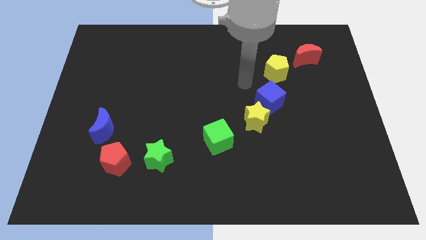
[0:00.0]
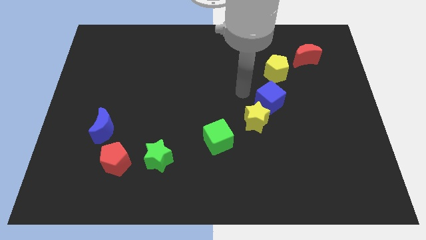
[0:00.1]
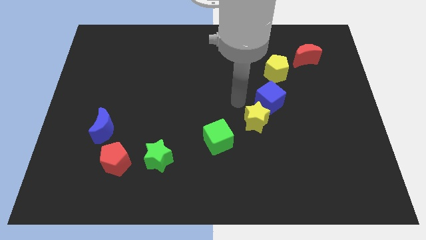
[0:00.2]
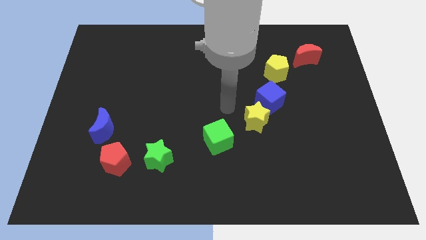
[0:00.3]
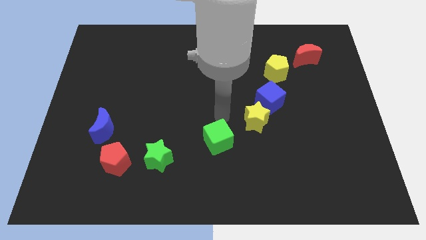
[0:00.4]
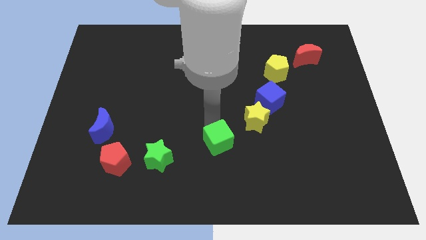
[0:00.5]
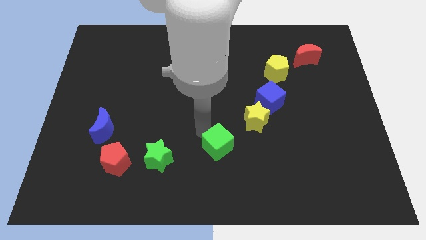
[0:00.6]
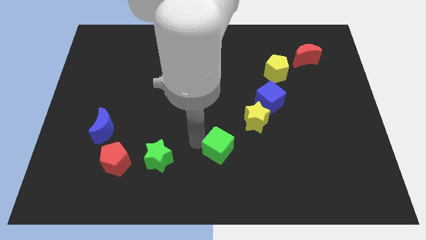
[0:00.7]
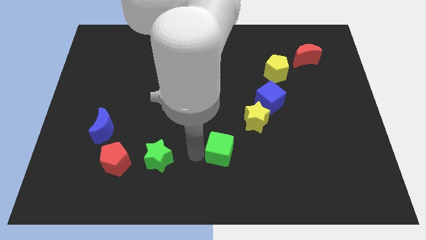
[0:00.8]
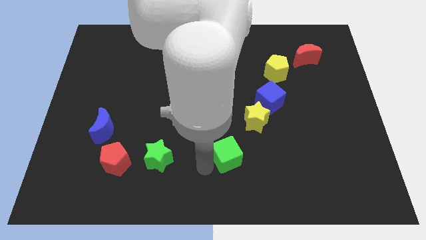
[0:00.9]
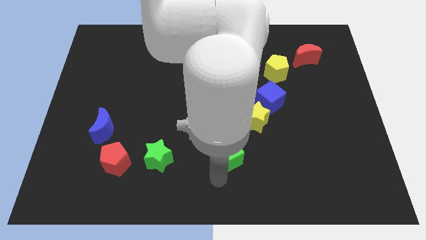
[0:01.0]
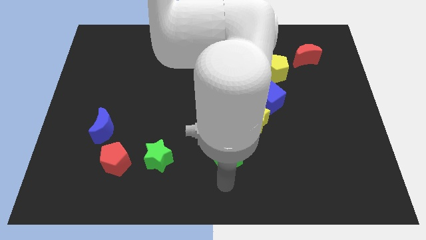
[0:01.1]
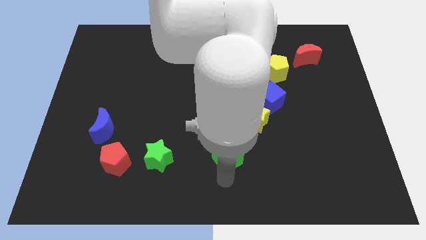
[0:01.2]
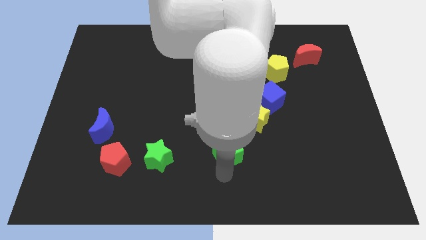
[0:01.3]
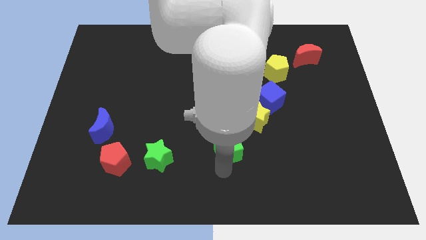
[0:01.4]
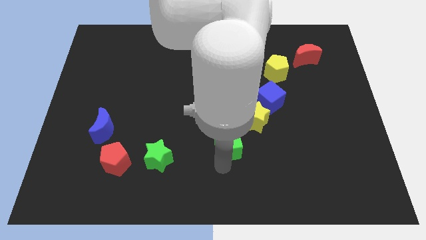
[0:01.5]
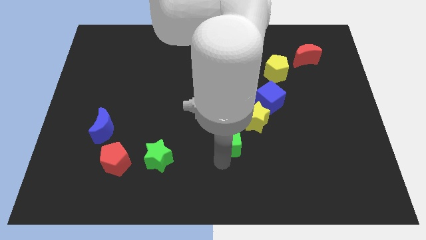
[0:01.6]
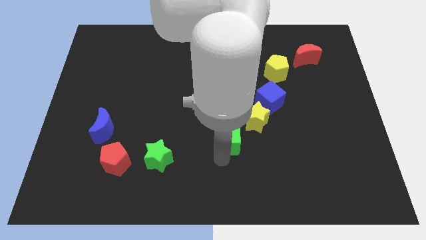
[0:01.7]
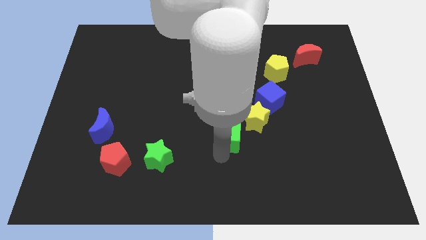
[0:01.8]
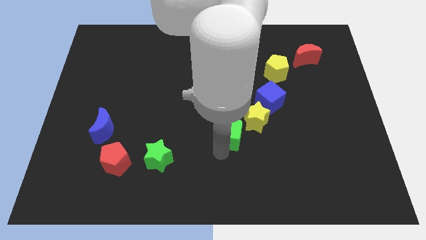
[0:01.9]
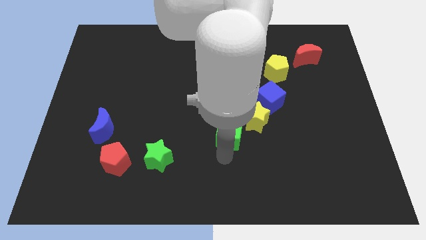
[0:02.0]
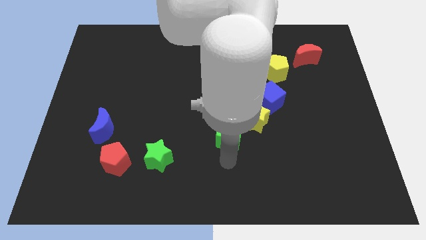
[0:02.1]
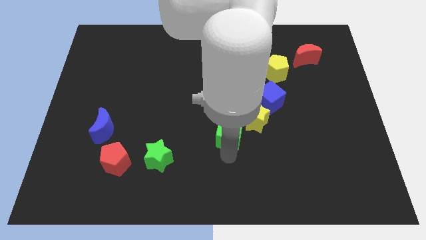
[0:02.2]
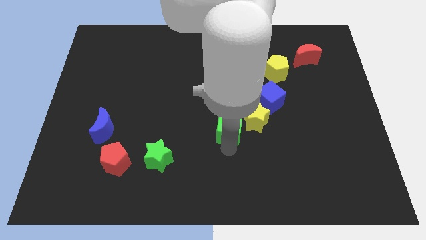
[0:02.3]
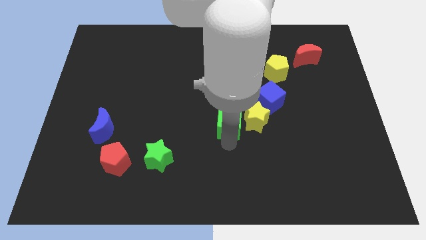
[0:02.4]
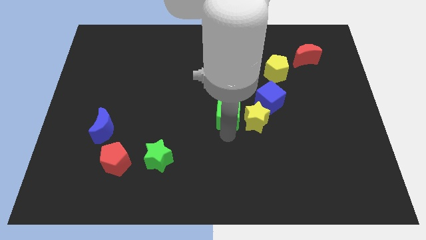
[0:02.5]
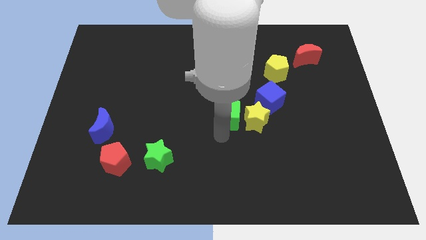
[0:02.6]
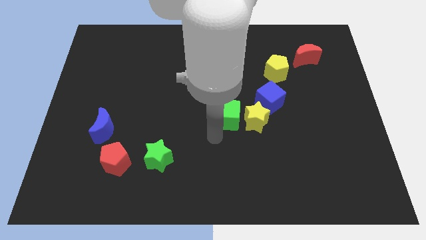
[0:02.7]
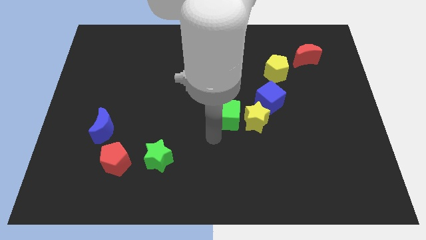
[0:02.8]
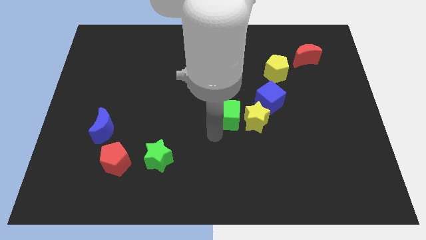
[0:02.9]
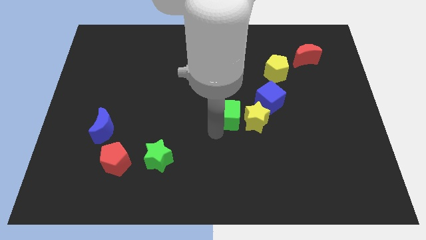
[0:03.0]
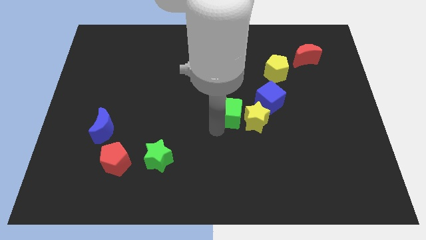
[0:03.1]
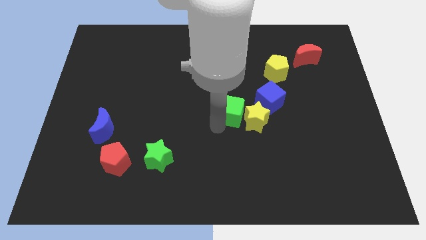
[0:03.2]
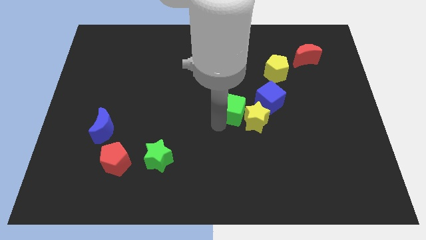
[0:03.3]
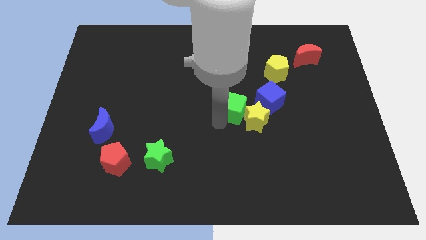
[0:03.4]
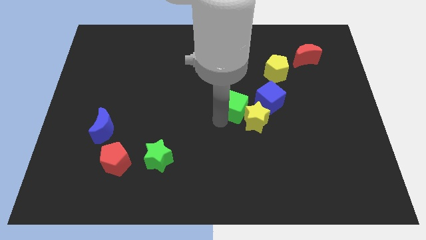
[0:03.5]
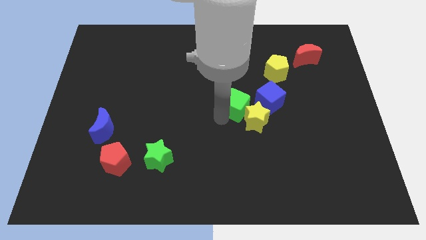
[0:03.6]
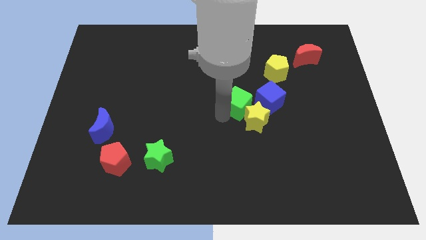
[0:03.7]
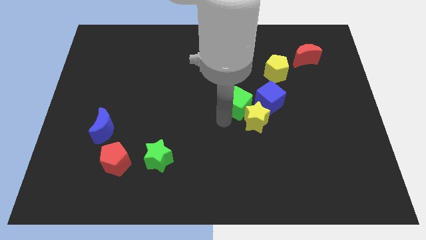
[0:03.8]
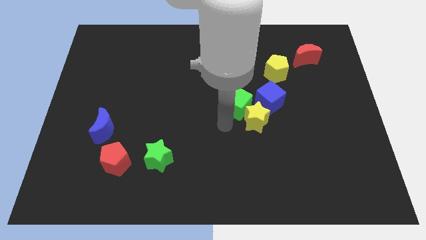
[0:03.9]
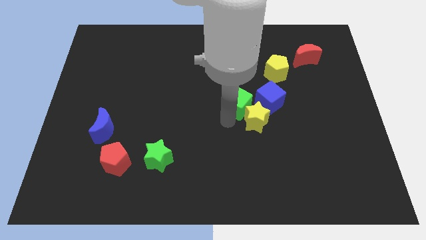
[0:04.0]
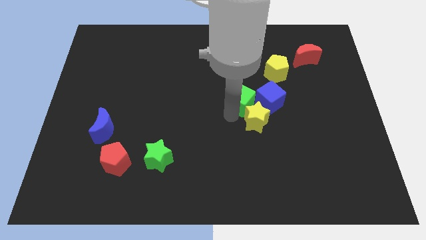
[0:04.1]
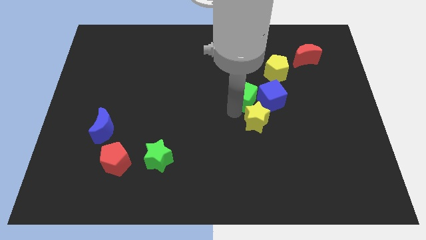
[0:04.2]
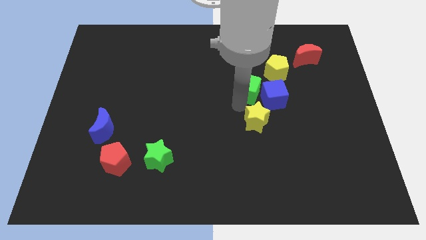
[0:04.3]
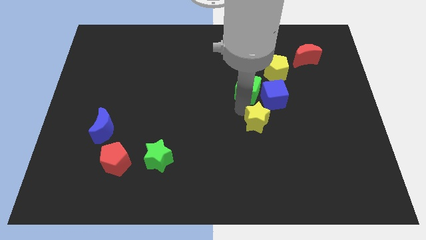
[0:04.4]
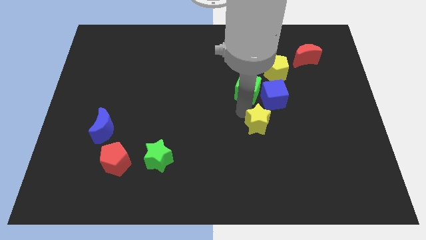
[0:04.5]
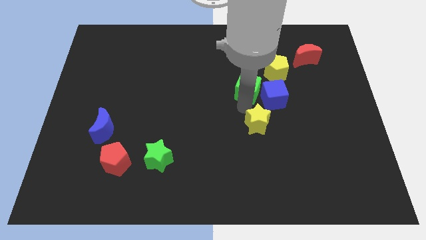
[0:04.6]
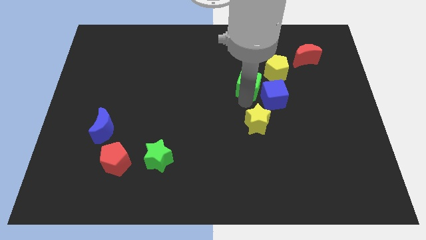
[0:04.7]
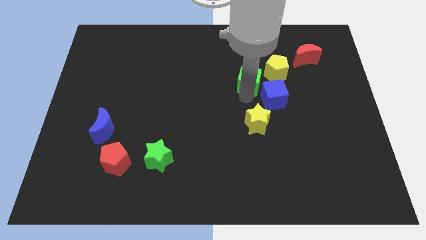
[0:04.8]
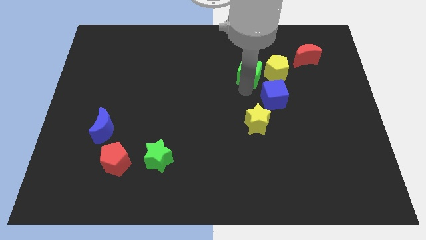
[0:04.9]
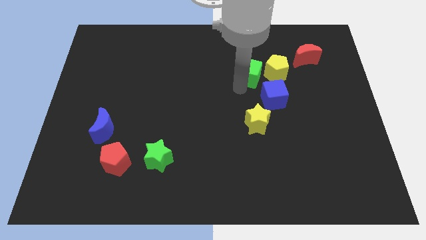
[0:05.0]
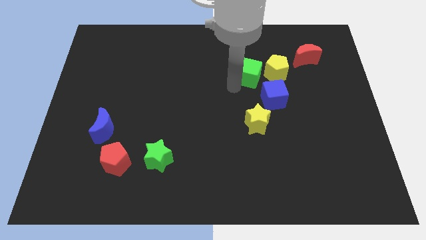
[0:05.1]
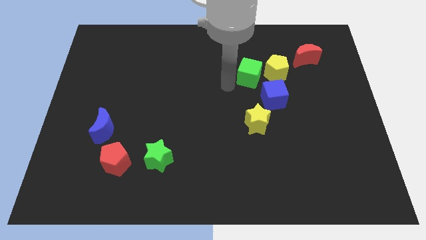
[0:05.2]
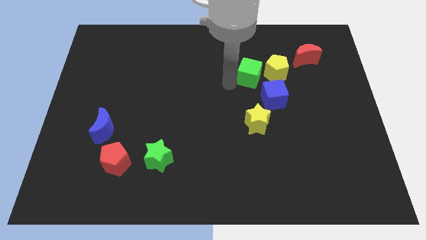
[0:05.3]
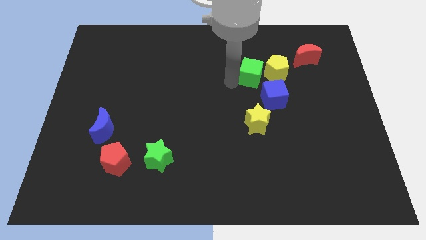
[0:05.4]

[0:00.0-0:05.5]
slide the green cube above the blue cube

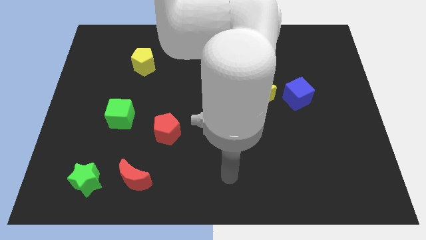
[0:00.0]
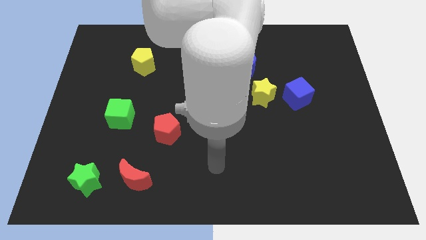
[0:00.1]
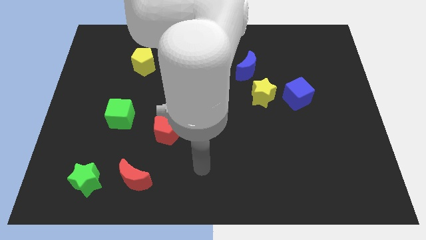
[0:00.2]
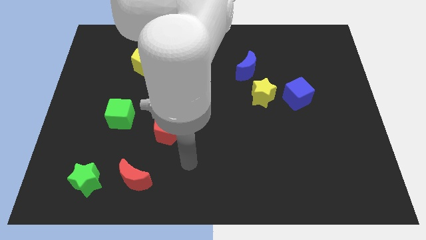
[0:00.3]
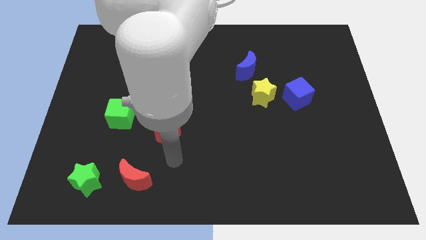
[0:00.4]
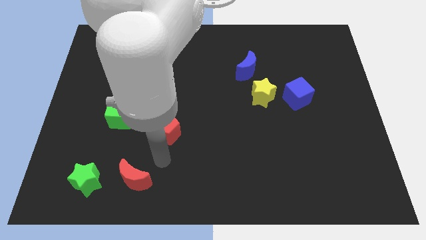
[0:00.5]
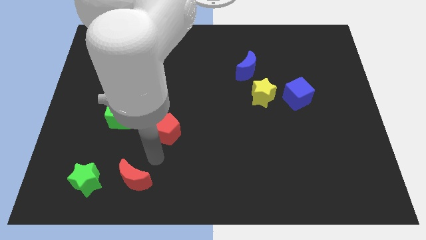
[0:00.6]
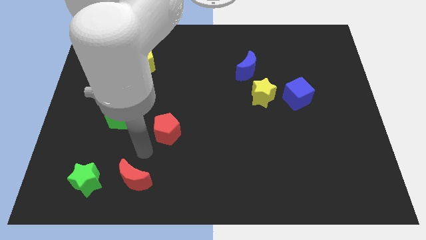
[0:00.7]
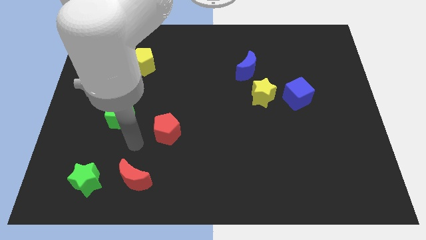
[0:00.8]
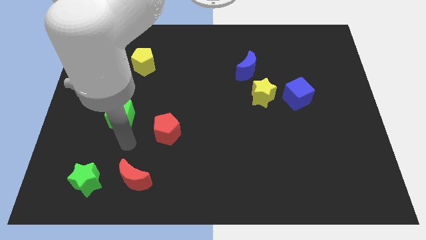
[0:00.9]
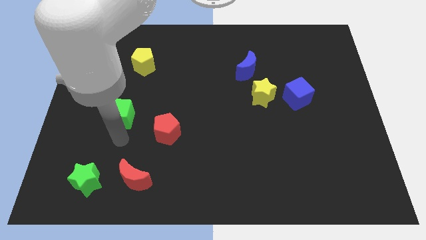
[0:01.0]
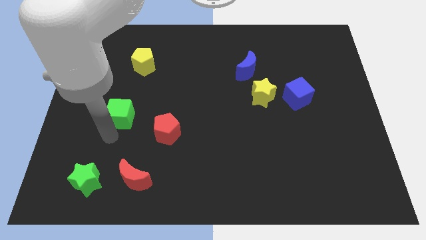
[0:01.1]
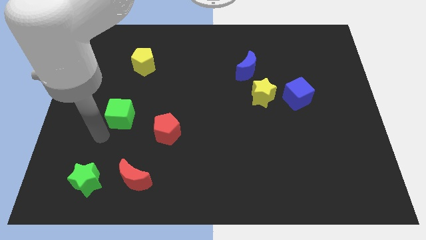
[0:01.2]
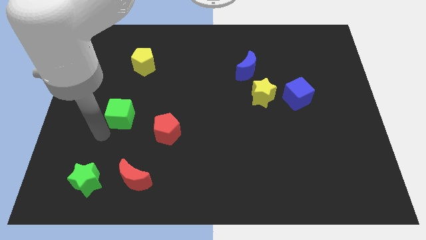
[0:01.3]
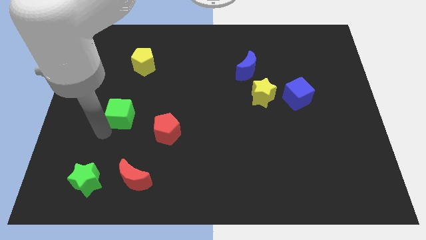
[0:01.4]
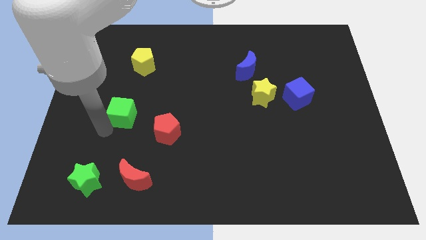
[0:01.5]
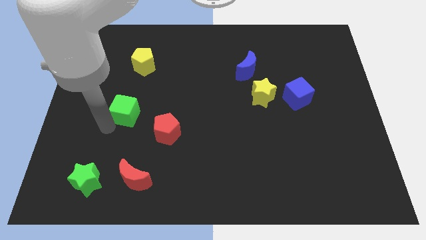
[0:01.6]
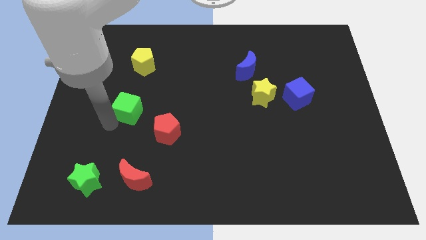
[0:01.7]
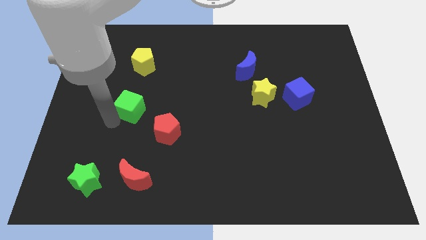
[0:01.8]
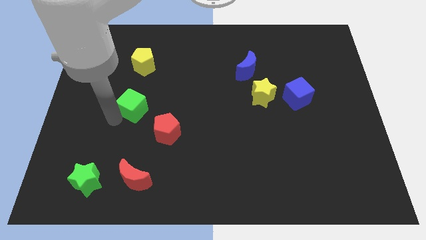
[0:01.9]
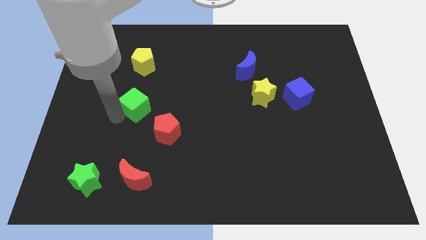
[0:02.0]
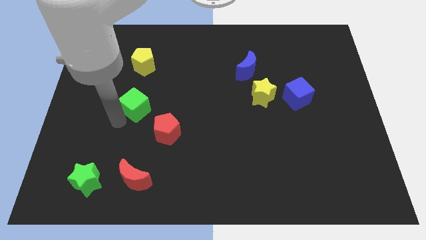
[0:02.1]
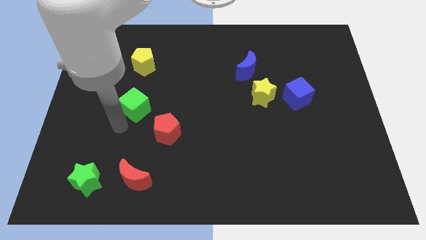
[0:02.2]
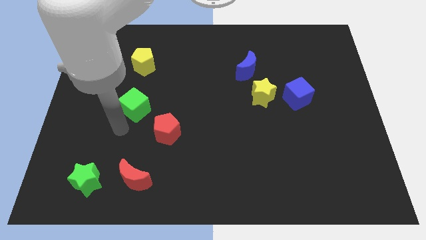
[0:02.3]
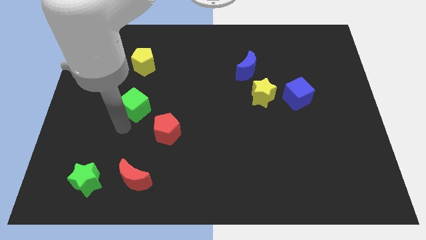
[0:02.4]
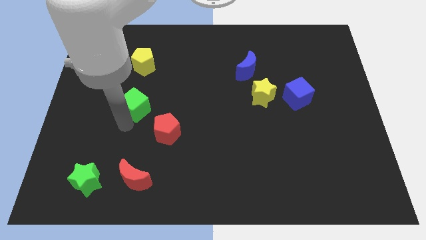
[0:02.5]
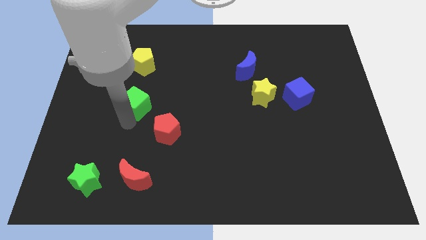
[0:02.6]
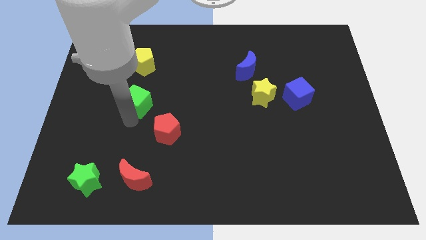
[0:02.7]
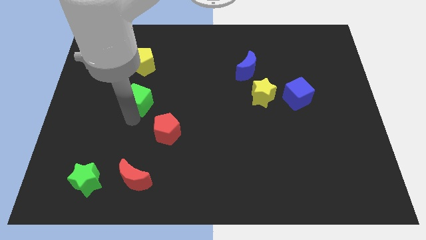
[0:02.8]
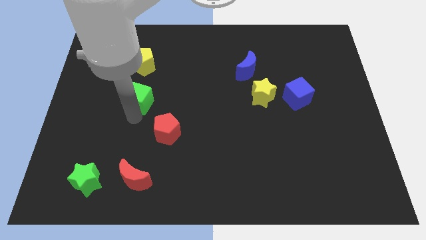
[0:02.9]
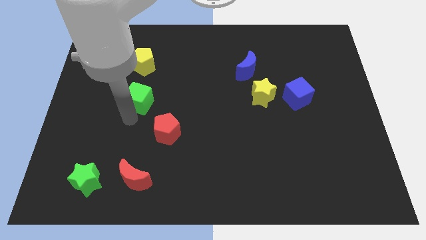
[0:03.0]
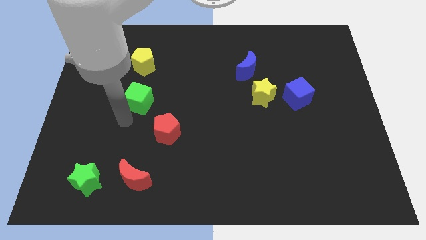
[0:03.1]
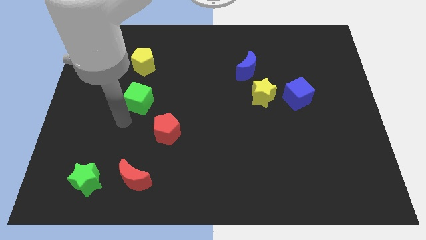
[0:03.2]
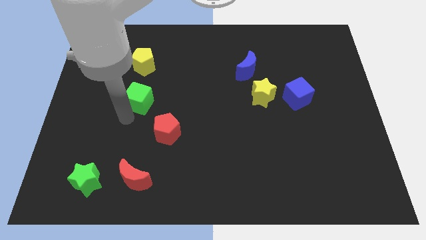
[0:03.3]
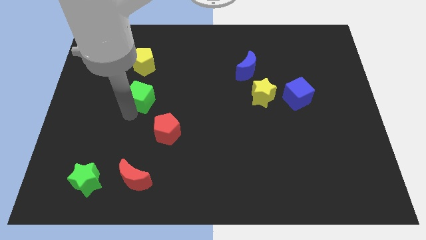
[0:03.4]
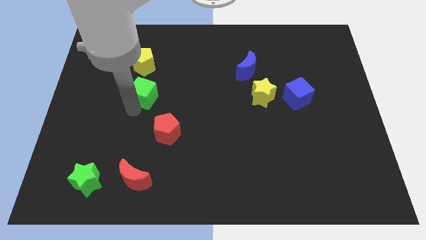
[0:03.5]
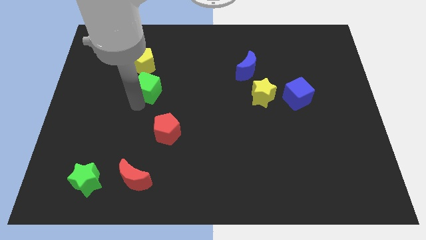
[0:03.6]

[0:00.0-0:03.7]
push the green cube to the bottom right side of the yellow pentagon
